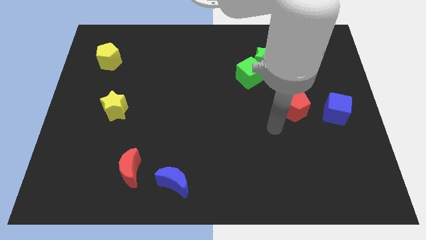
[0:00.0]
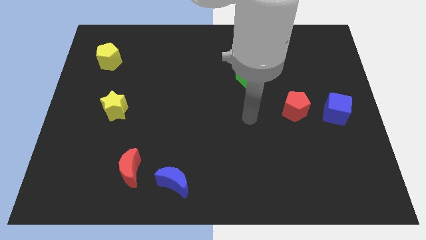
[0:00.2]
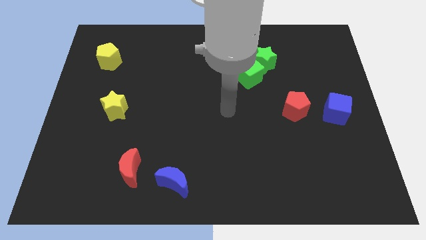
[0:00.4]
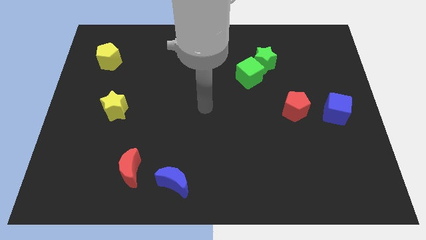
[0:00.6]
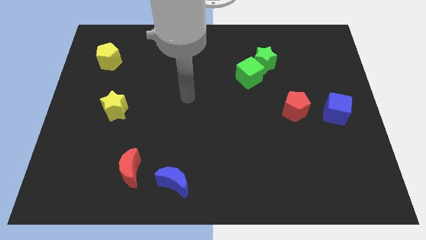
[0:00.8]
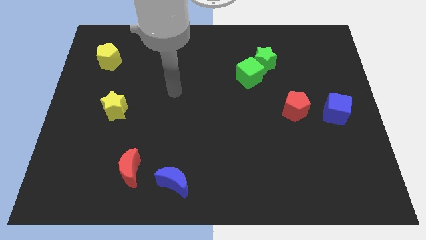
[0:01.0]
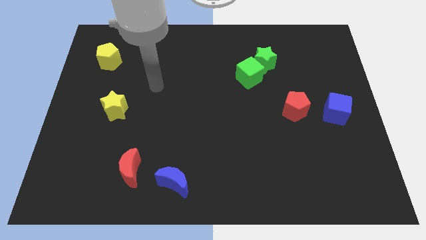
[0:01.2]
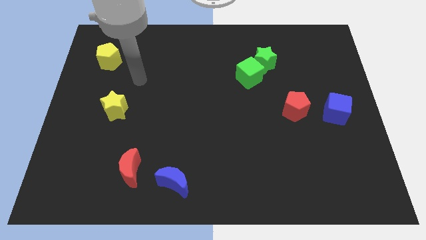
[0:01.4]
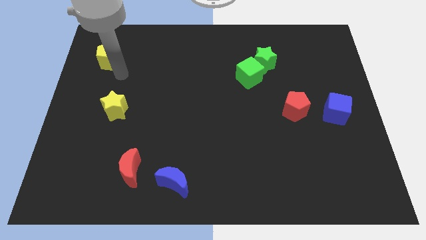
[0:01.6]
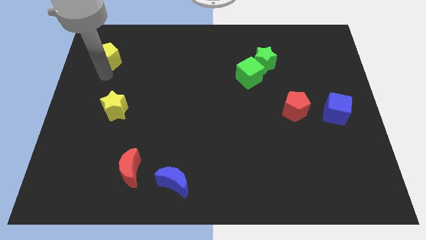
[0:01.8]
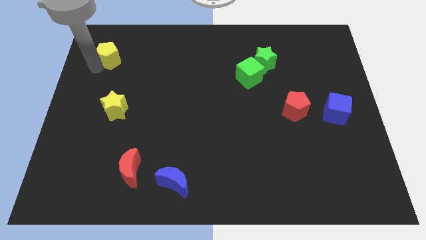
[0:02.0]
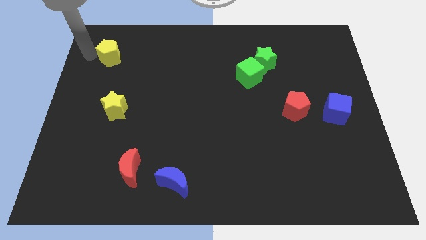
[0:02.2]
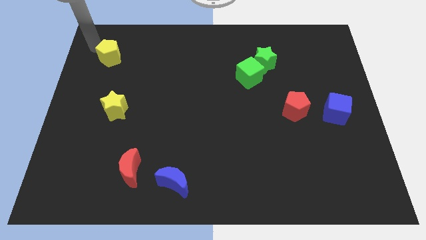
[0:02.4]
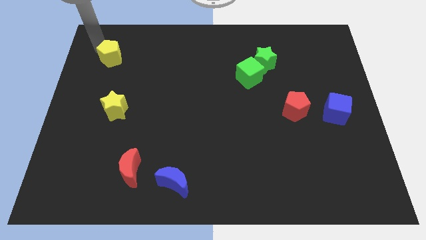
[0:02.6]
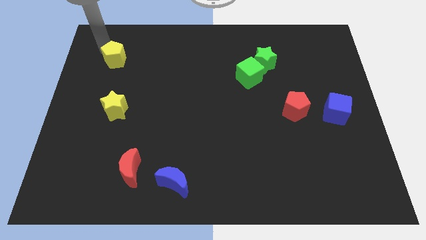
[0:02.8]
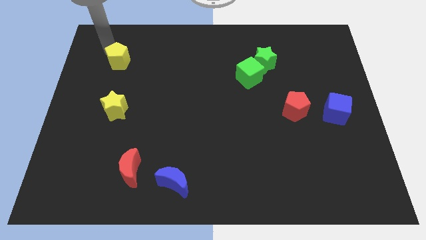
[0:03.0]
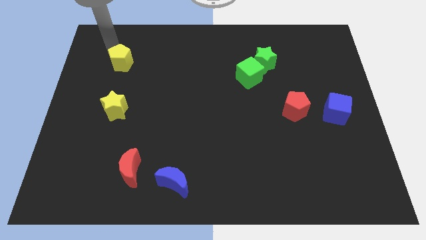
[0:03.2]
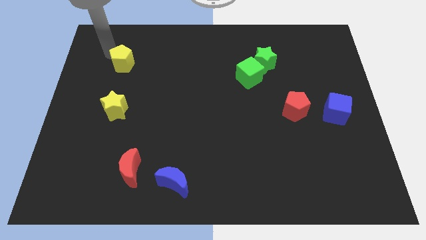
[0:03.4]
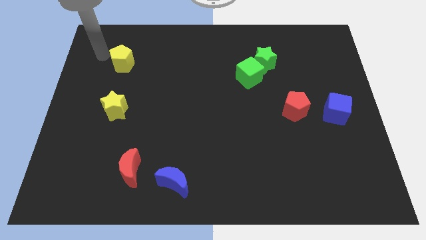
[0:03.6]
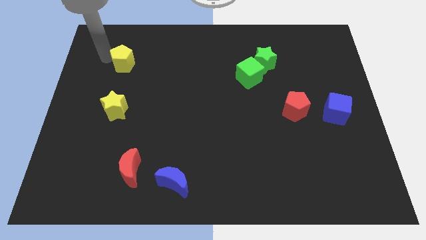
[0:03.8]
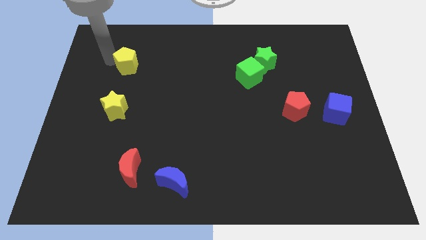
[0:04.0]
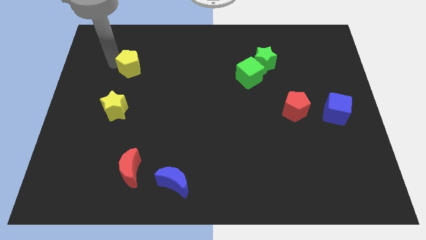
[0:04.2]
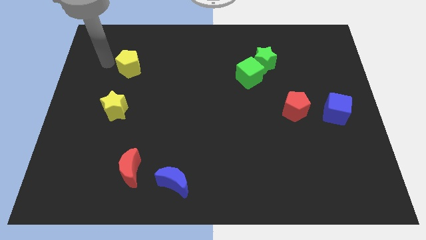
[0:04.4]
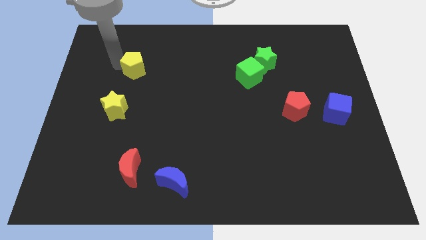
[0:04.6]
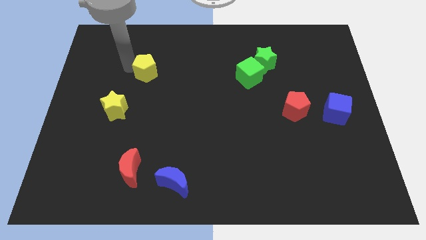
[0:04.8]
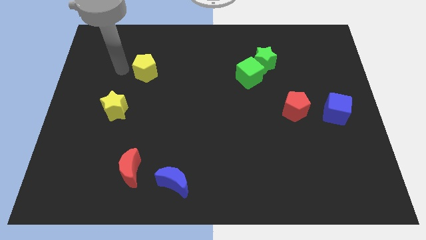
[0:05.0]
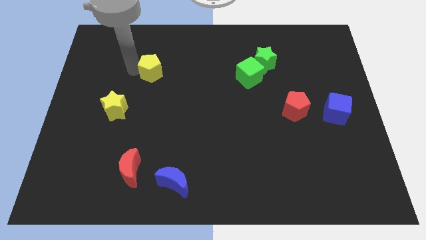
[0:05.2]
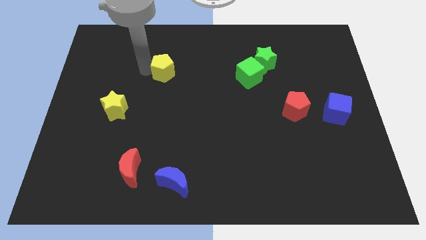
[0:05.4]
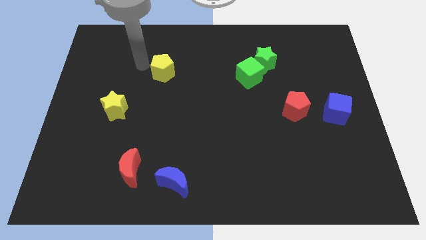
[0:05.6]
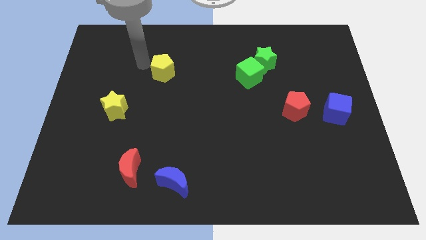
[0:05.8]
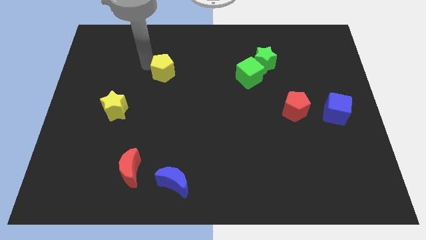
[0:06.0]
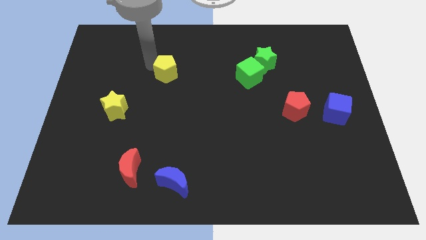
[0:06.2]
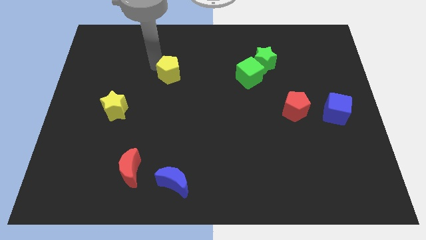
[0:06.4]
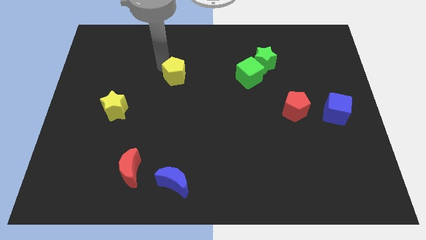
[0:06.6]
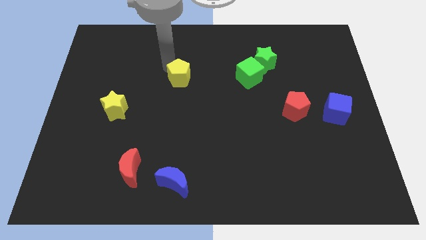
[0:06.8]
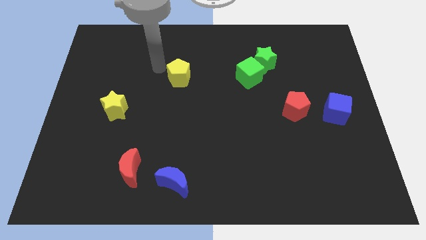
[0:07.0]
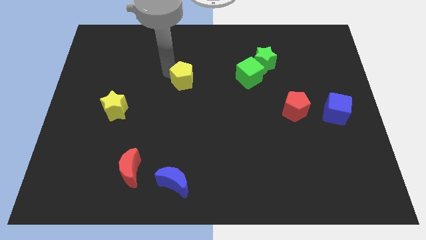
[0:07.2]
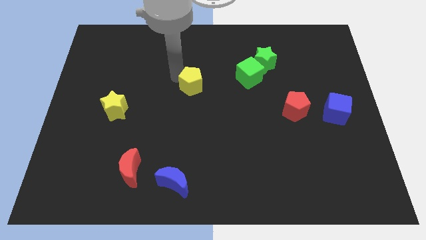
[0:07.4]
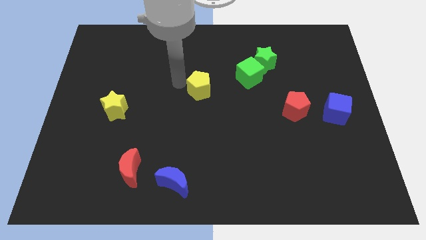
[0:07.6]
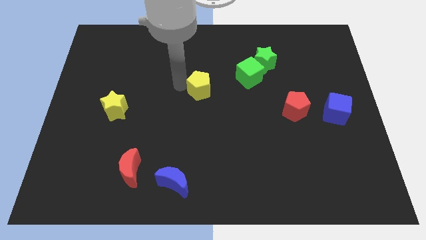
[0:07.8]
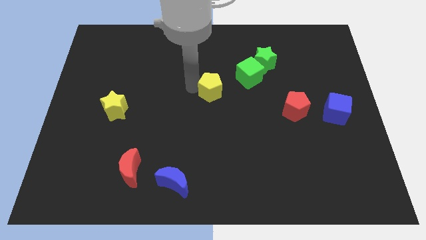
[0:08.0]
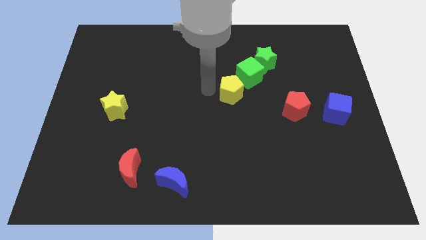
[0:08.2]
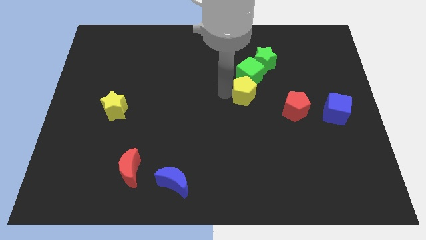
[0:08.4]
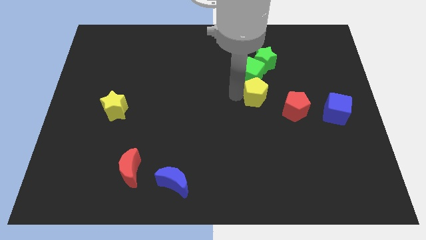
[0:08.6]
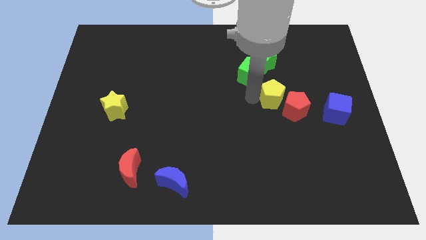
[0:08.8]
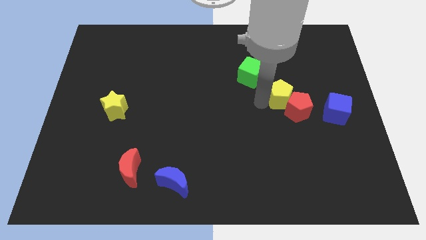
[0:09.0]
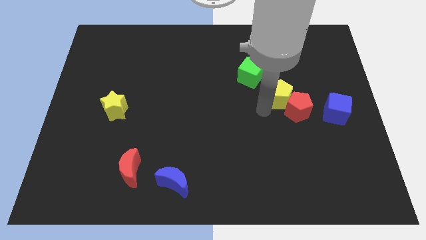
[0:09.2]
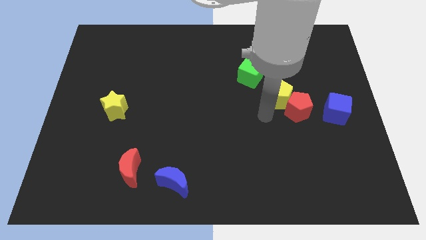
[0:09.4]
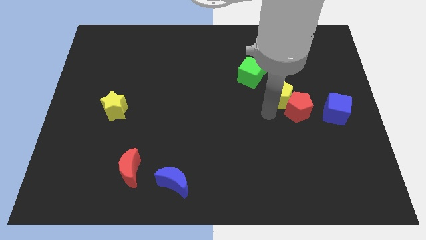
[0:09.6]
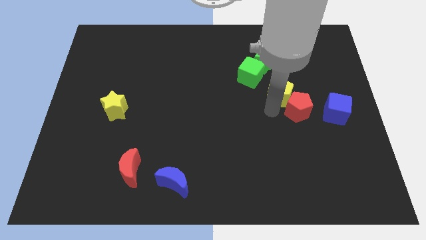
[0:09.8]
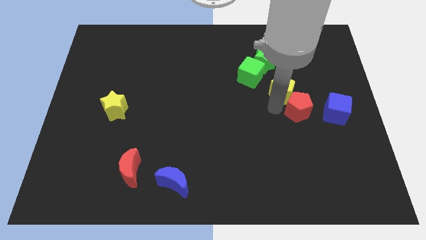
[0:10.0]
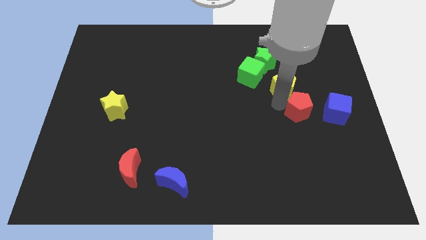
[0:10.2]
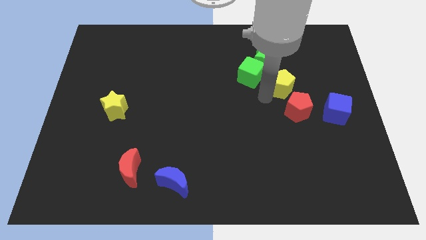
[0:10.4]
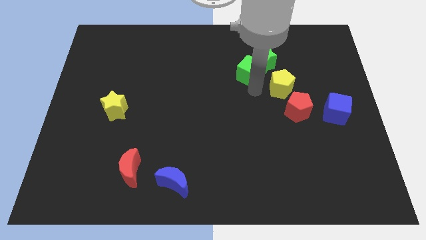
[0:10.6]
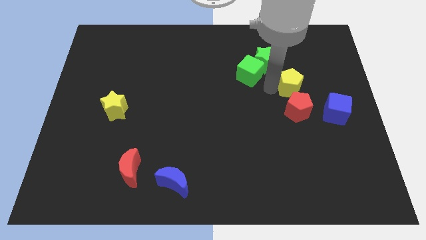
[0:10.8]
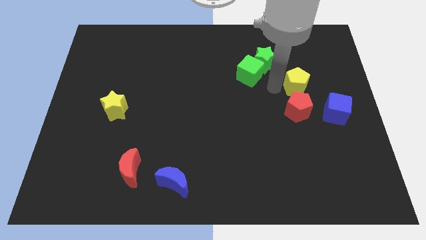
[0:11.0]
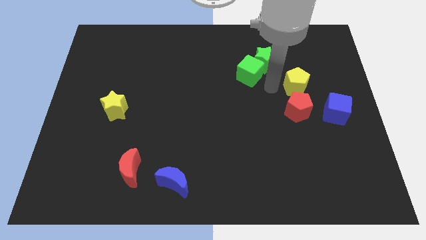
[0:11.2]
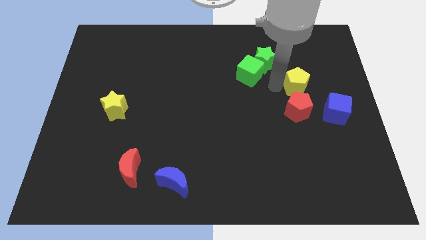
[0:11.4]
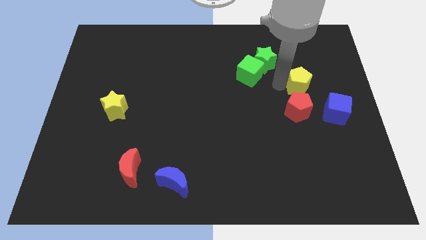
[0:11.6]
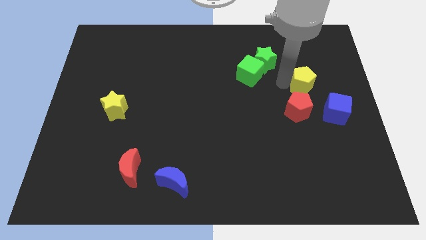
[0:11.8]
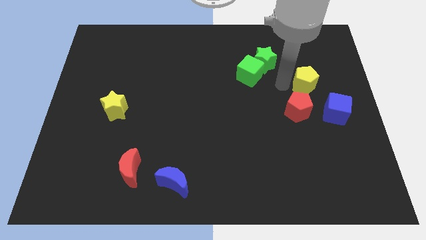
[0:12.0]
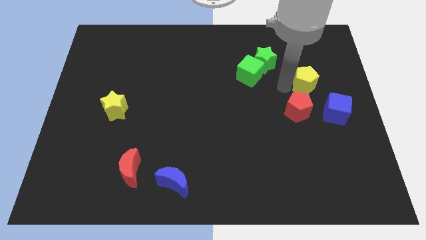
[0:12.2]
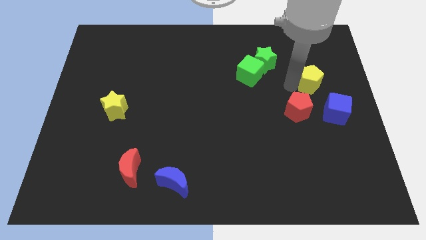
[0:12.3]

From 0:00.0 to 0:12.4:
push the yellow pentagon to the top of the blue cube
